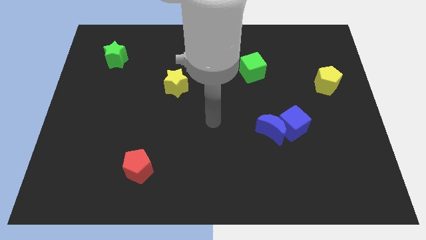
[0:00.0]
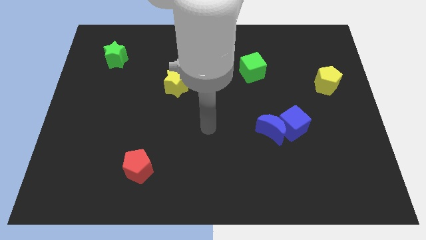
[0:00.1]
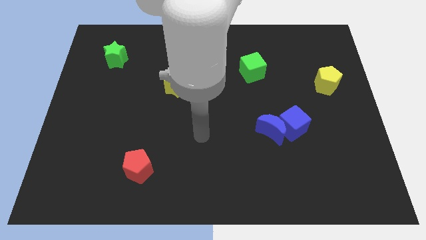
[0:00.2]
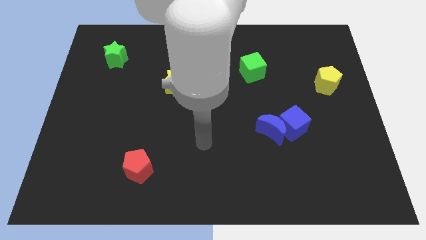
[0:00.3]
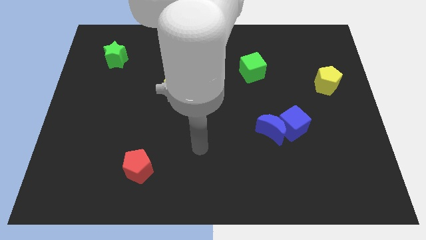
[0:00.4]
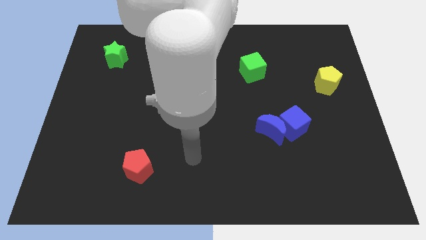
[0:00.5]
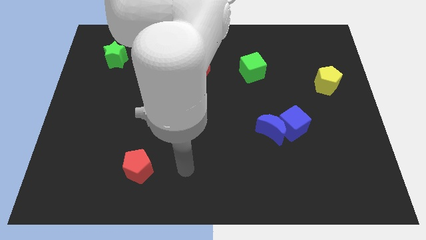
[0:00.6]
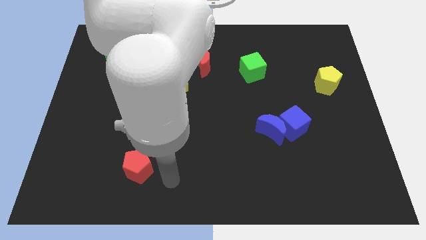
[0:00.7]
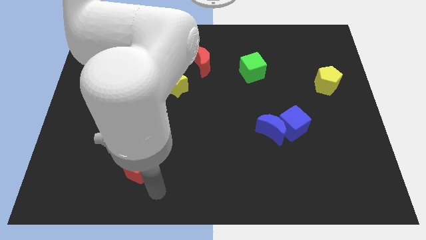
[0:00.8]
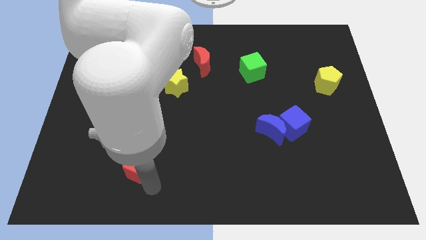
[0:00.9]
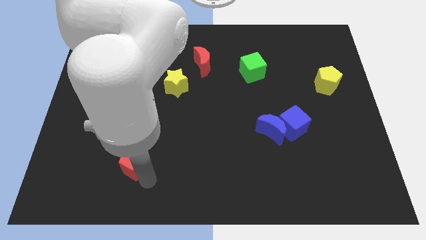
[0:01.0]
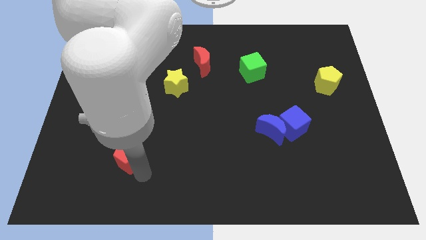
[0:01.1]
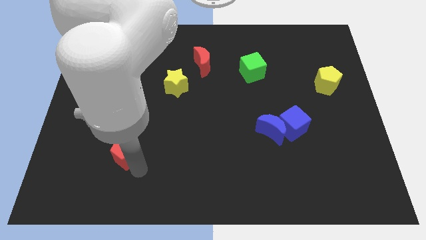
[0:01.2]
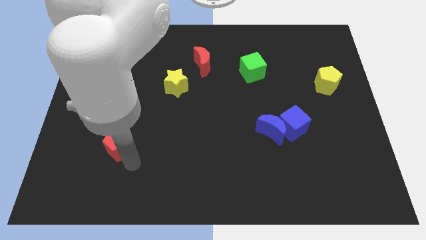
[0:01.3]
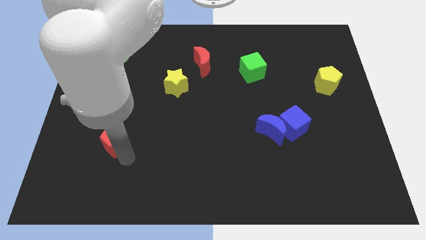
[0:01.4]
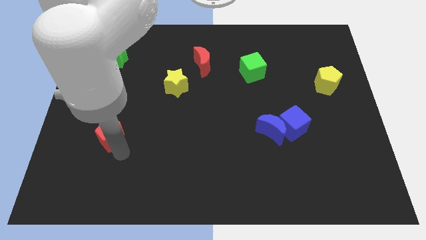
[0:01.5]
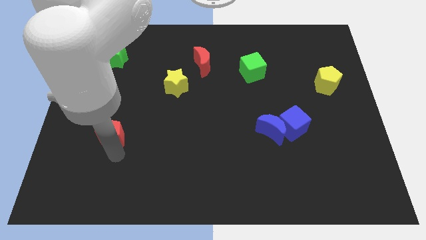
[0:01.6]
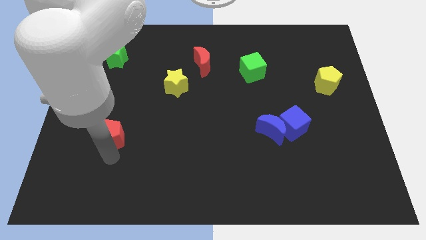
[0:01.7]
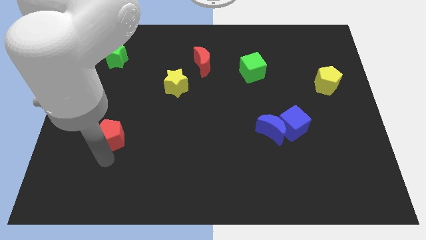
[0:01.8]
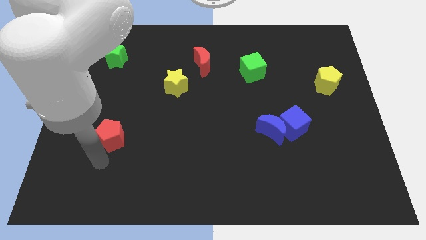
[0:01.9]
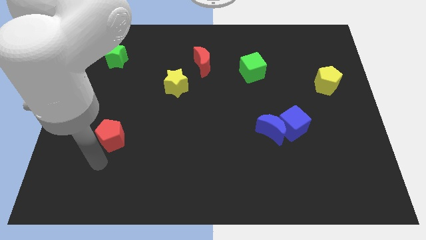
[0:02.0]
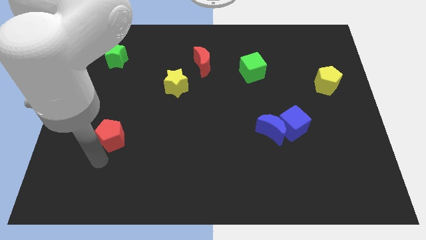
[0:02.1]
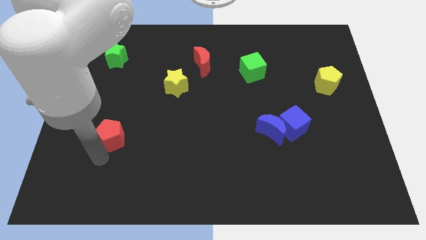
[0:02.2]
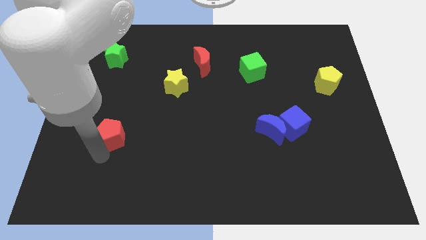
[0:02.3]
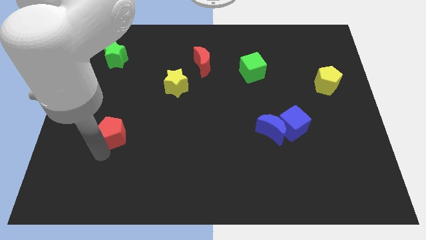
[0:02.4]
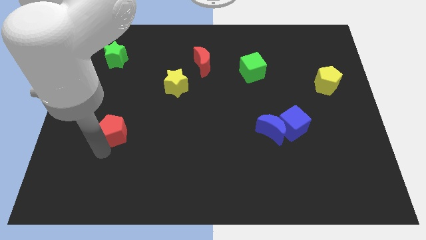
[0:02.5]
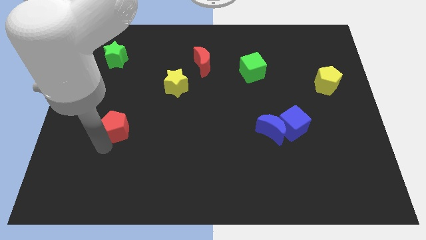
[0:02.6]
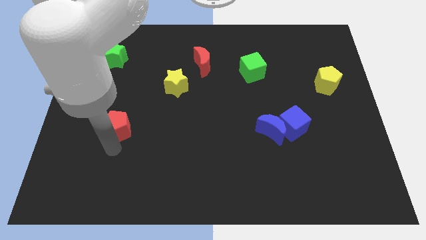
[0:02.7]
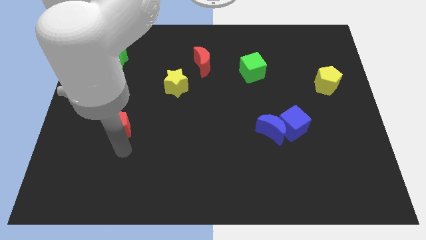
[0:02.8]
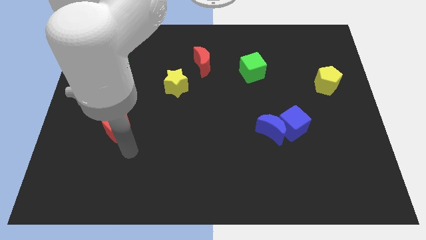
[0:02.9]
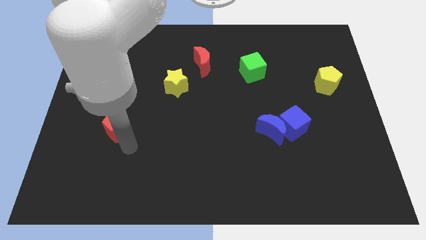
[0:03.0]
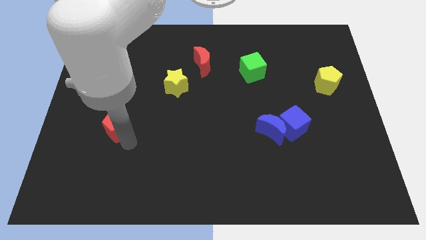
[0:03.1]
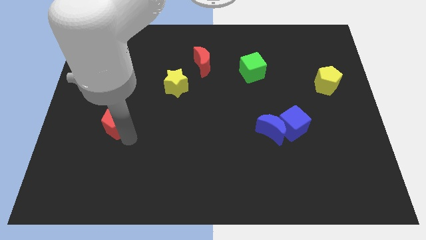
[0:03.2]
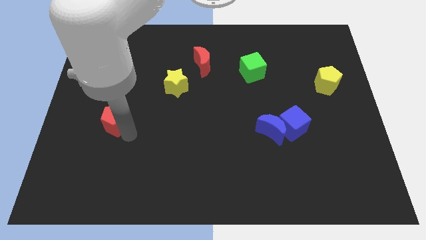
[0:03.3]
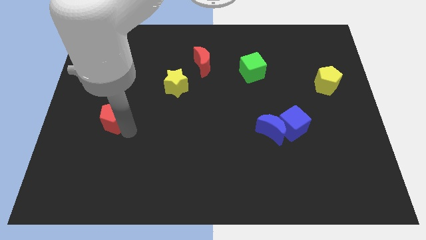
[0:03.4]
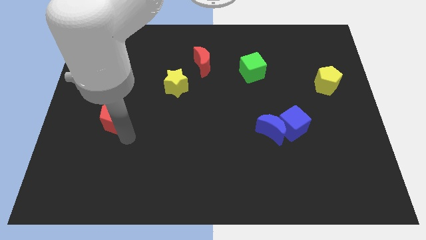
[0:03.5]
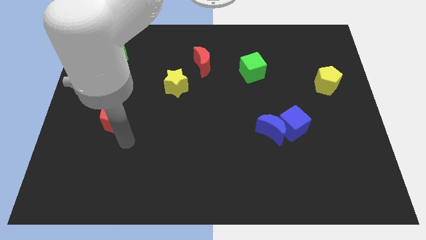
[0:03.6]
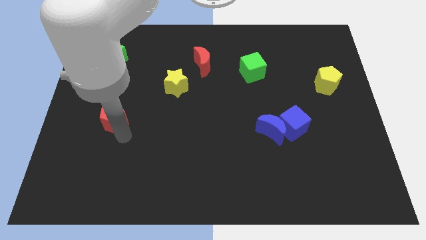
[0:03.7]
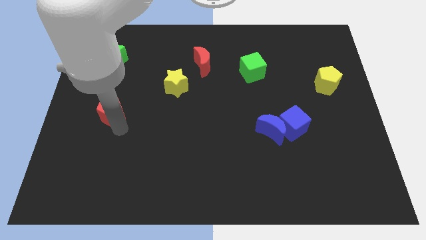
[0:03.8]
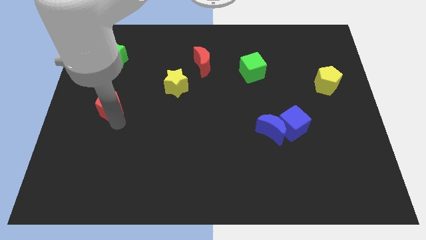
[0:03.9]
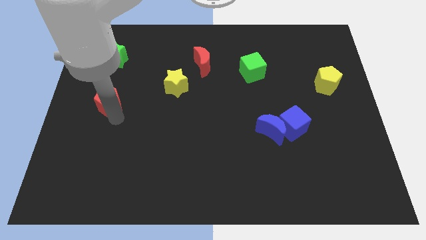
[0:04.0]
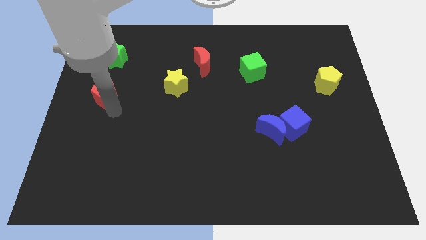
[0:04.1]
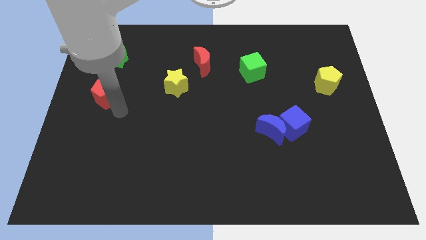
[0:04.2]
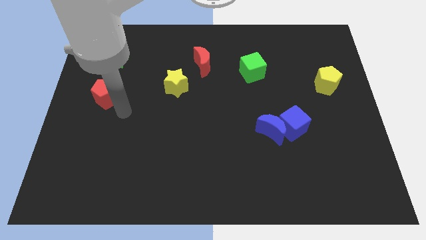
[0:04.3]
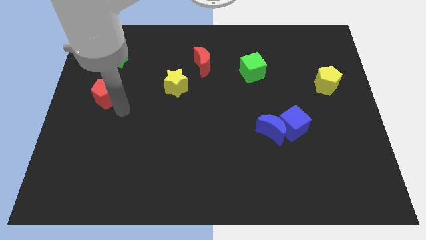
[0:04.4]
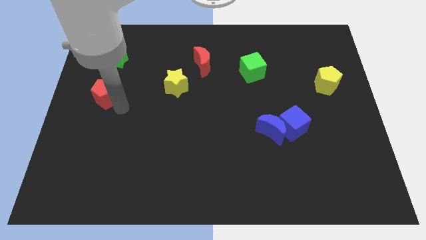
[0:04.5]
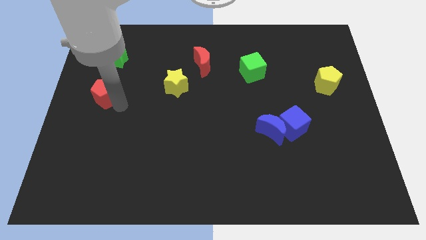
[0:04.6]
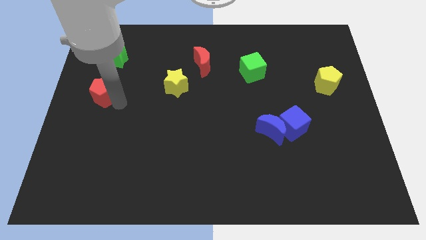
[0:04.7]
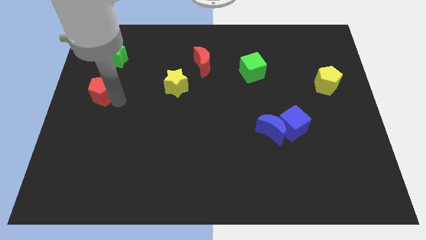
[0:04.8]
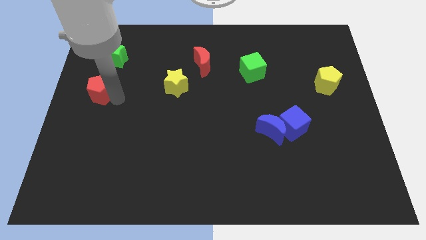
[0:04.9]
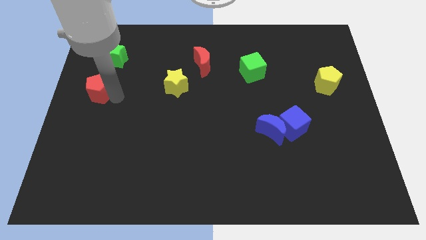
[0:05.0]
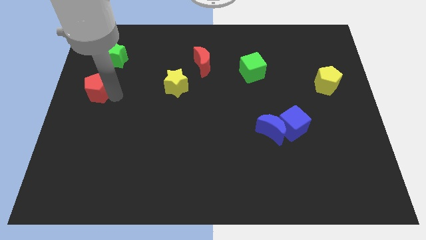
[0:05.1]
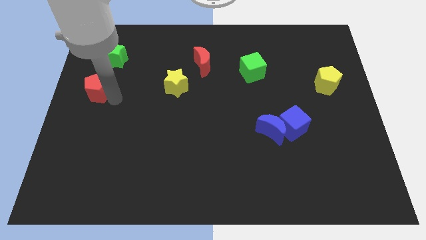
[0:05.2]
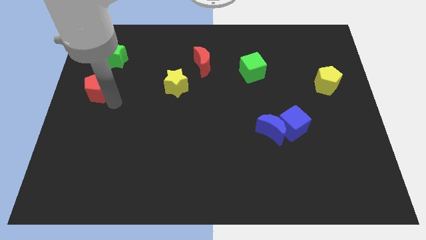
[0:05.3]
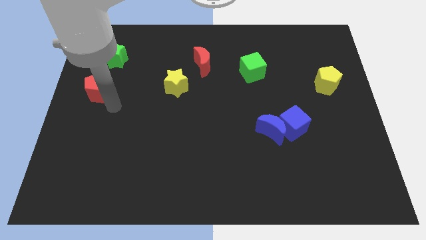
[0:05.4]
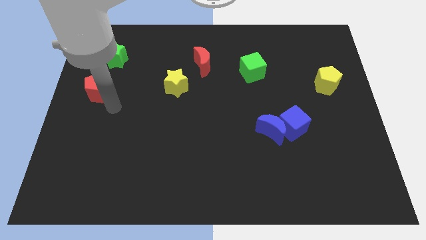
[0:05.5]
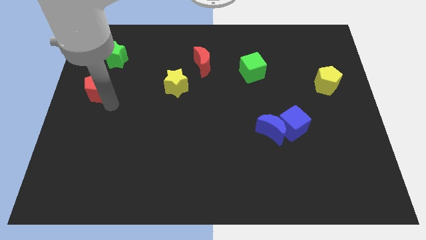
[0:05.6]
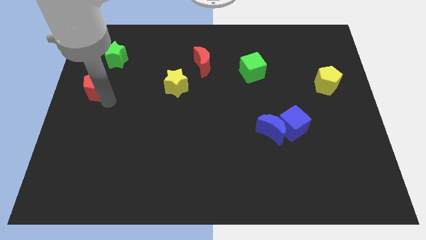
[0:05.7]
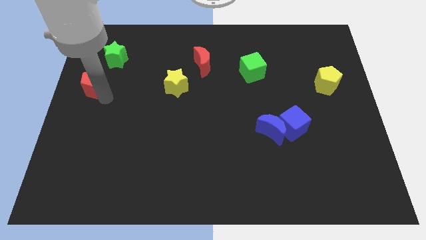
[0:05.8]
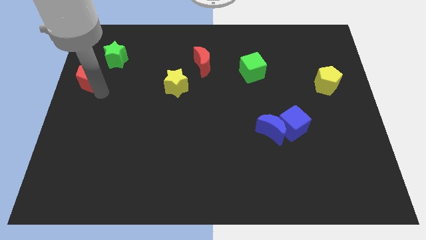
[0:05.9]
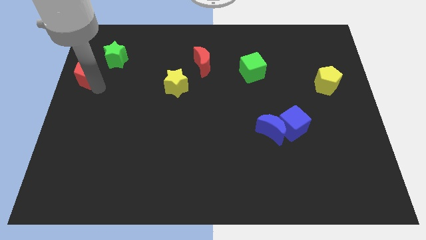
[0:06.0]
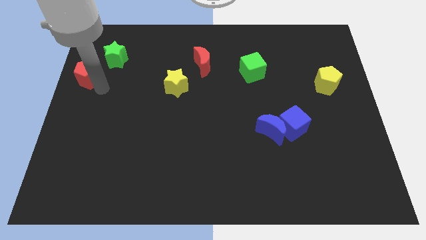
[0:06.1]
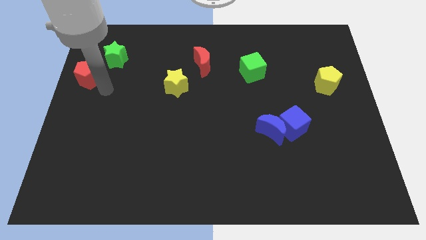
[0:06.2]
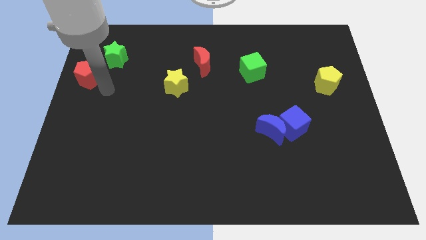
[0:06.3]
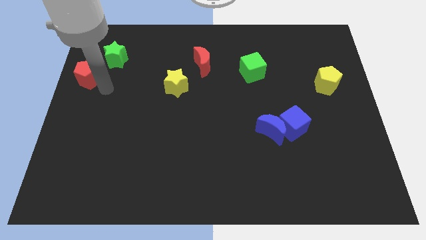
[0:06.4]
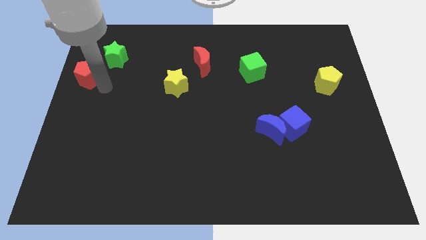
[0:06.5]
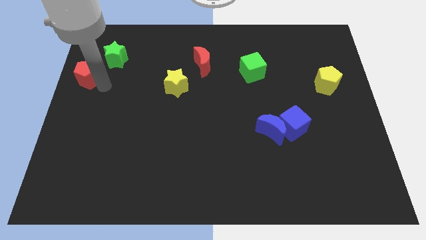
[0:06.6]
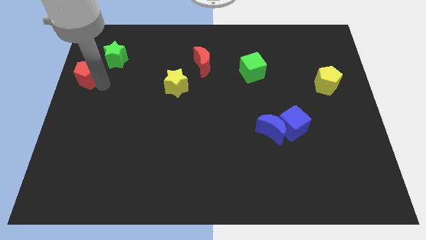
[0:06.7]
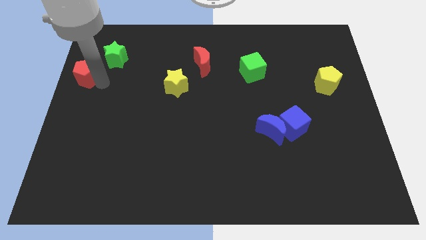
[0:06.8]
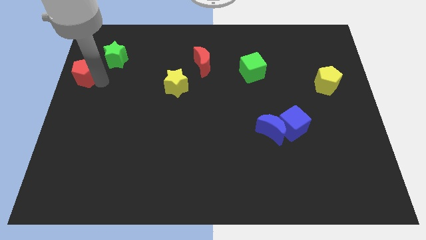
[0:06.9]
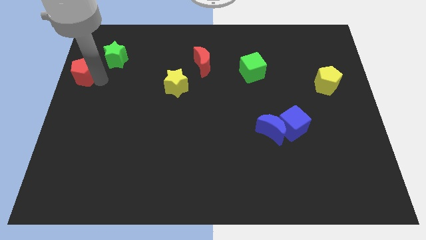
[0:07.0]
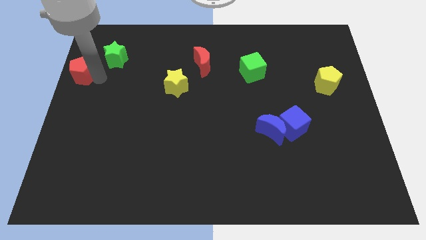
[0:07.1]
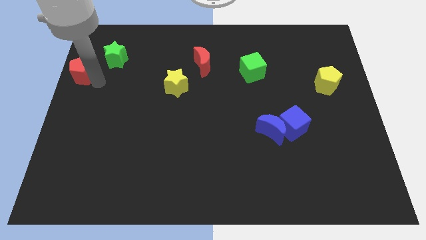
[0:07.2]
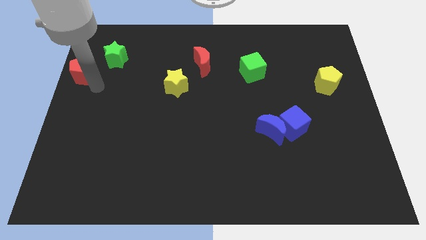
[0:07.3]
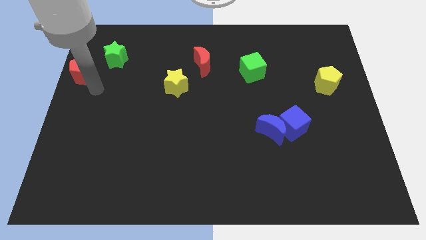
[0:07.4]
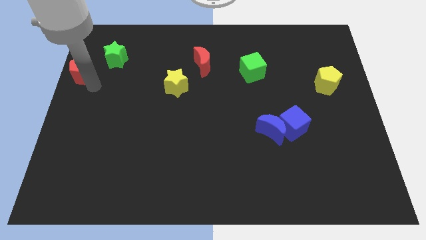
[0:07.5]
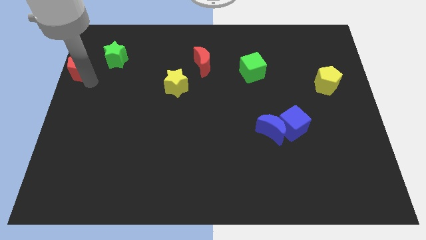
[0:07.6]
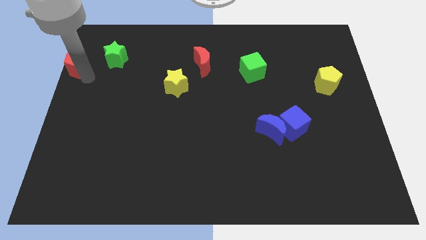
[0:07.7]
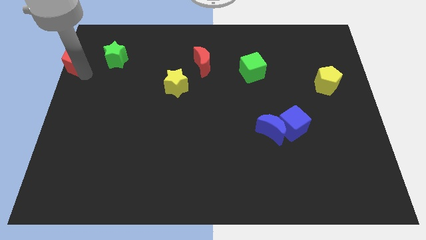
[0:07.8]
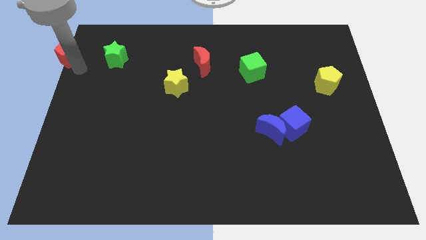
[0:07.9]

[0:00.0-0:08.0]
push the red pentagon to the top left of the board
